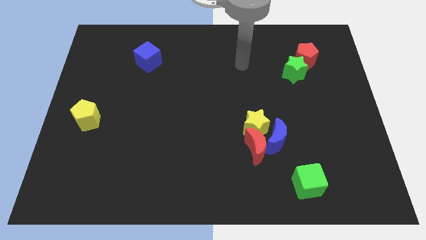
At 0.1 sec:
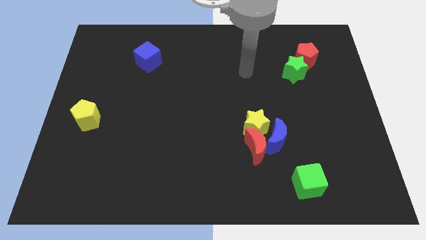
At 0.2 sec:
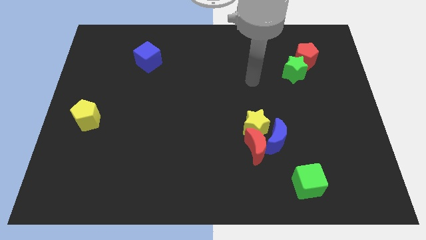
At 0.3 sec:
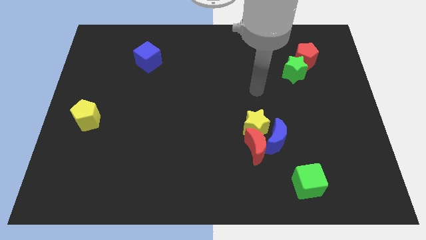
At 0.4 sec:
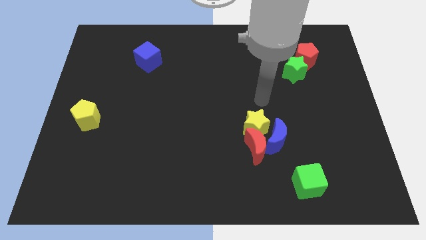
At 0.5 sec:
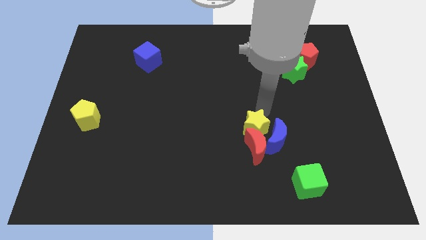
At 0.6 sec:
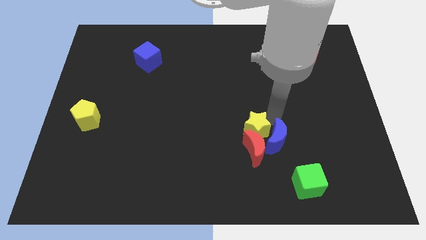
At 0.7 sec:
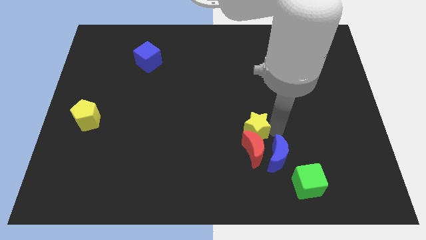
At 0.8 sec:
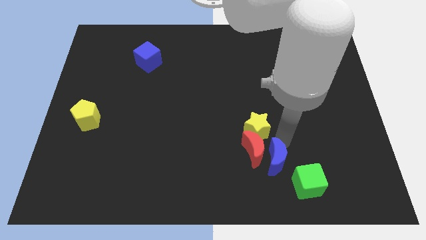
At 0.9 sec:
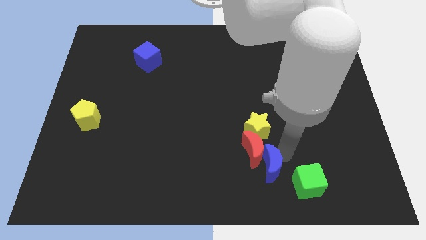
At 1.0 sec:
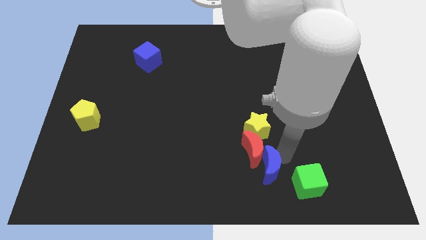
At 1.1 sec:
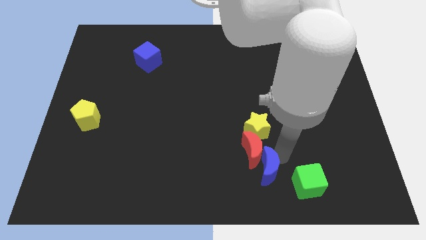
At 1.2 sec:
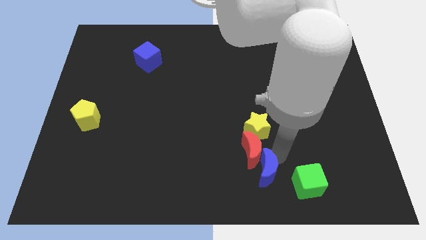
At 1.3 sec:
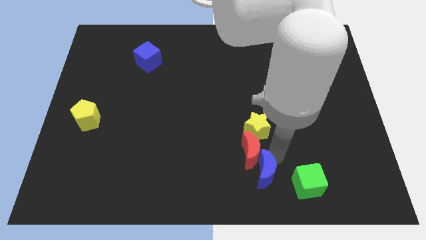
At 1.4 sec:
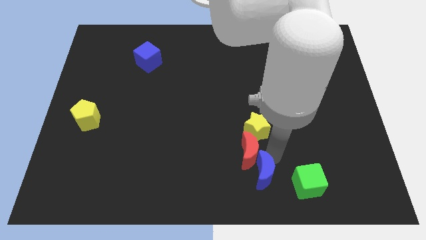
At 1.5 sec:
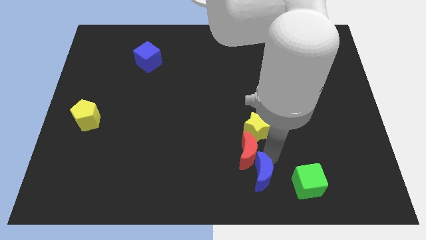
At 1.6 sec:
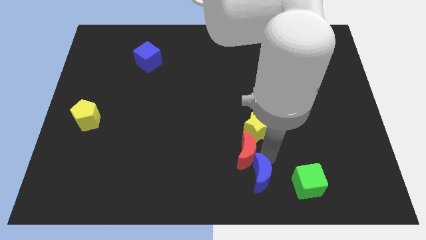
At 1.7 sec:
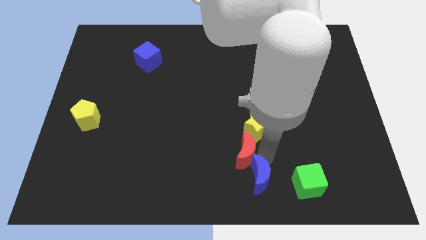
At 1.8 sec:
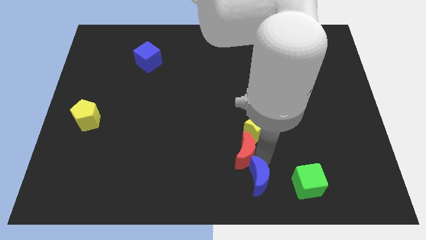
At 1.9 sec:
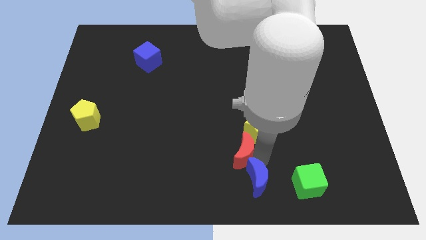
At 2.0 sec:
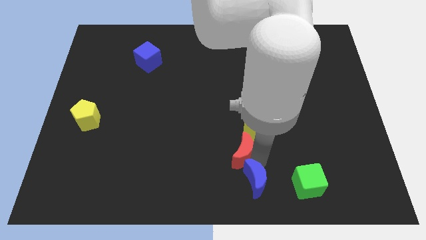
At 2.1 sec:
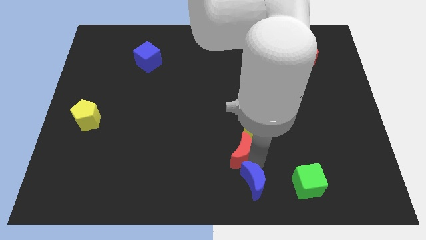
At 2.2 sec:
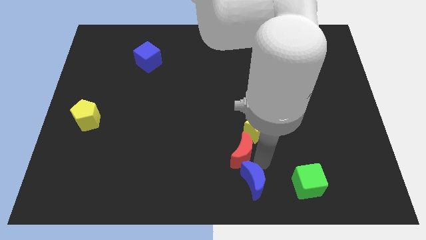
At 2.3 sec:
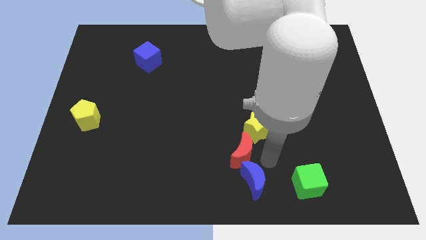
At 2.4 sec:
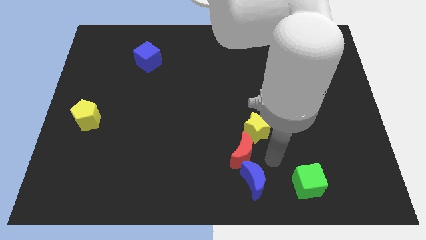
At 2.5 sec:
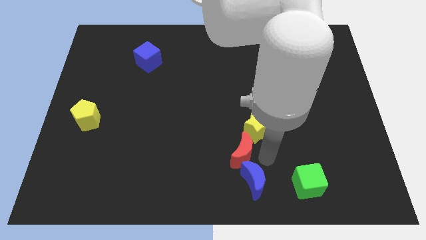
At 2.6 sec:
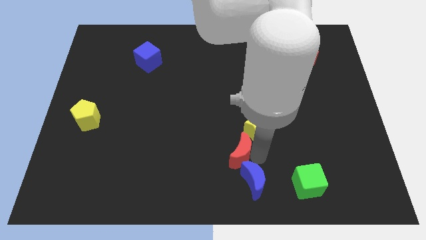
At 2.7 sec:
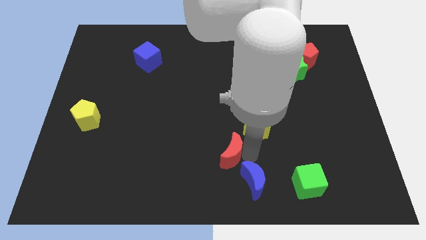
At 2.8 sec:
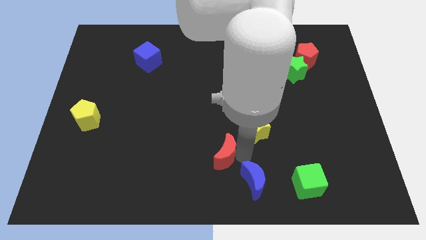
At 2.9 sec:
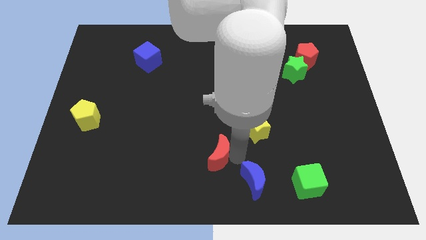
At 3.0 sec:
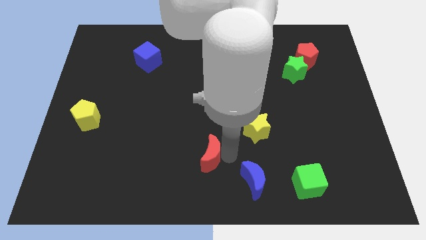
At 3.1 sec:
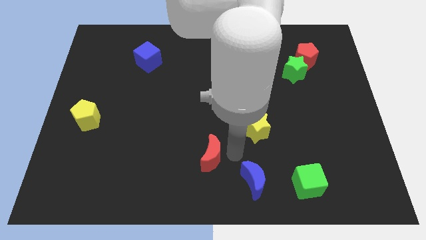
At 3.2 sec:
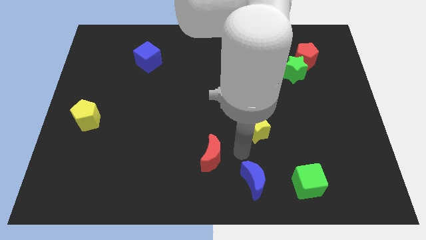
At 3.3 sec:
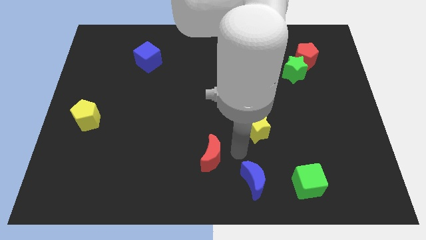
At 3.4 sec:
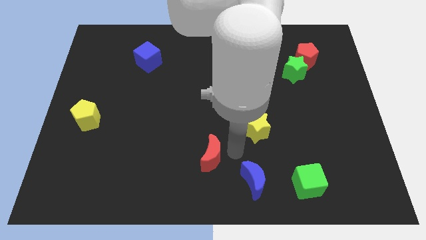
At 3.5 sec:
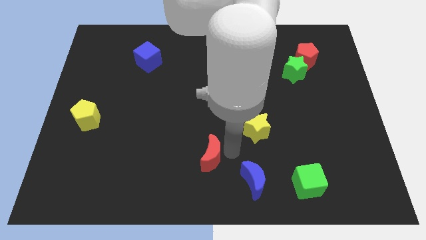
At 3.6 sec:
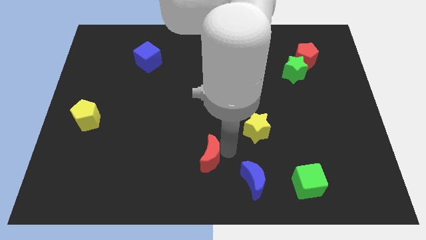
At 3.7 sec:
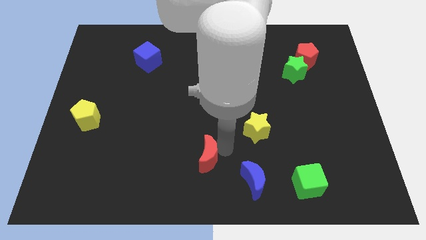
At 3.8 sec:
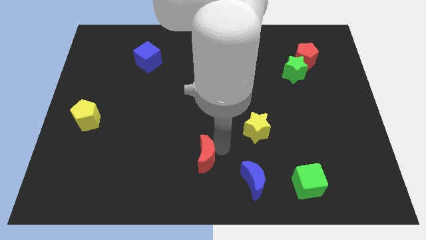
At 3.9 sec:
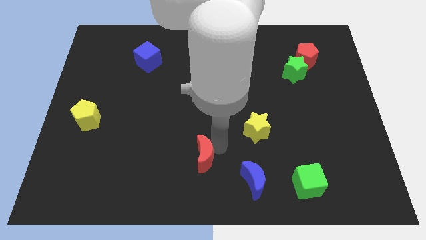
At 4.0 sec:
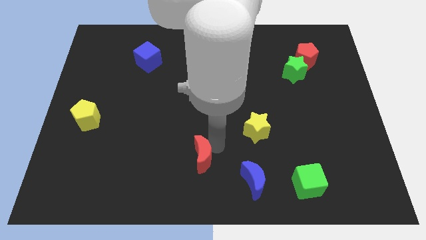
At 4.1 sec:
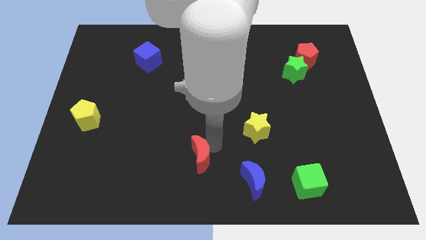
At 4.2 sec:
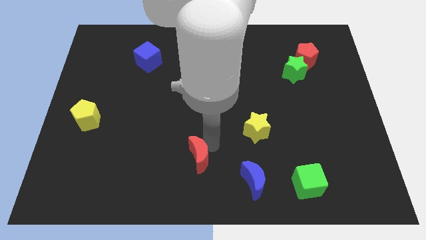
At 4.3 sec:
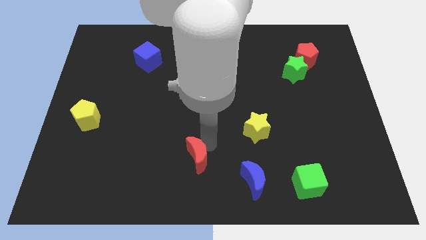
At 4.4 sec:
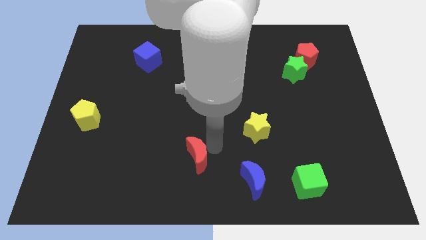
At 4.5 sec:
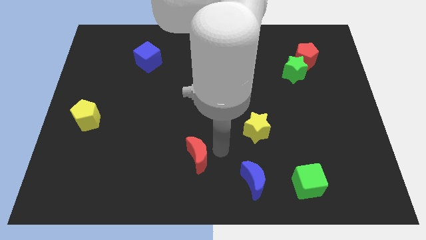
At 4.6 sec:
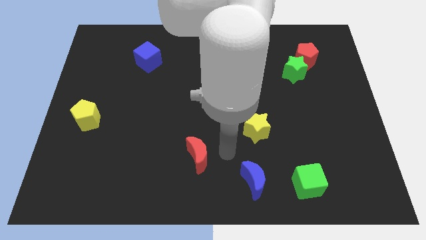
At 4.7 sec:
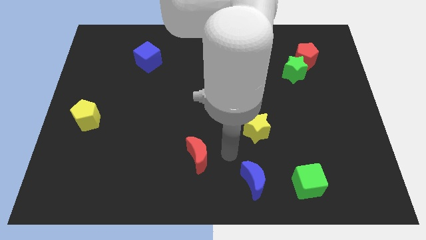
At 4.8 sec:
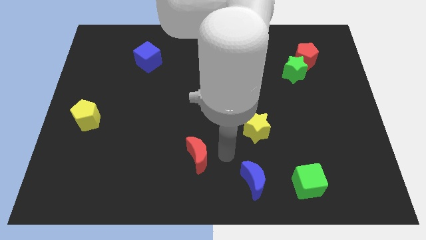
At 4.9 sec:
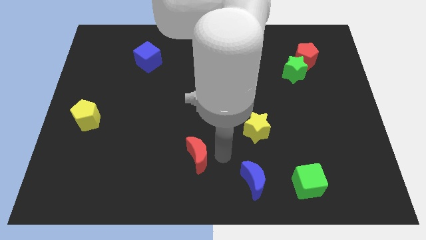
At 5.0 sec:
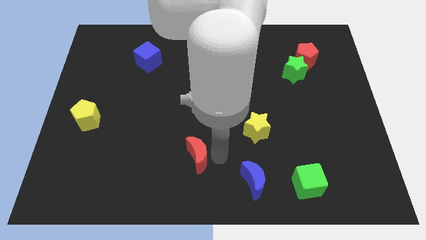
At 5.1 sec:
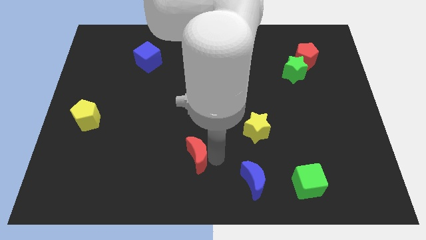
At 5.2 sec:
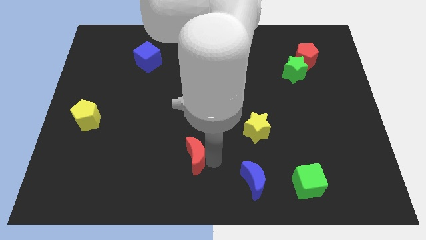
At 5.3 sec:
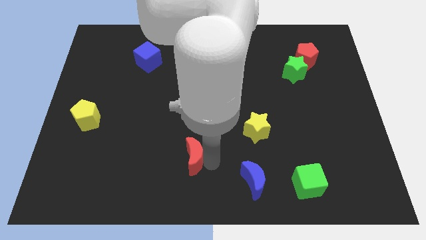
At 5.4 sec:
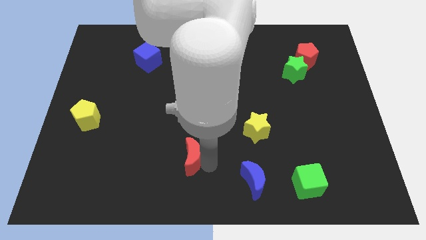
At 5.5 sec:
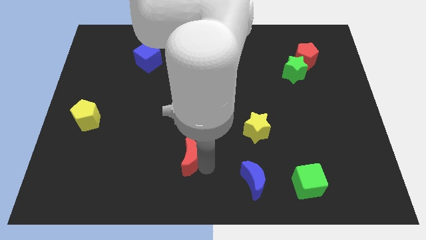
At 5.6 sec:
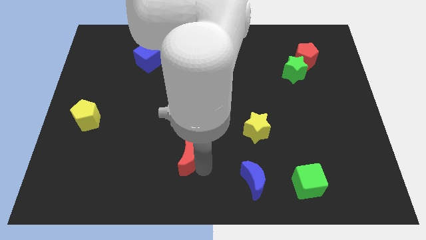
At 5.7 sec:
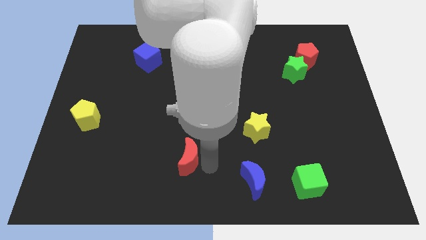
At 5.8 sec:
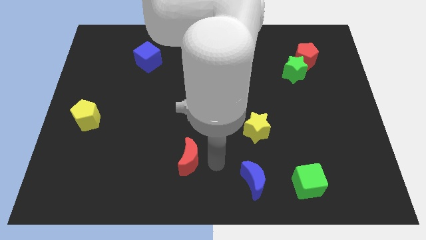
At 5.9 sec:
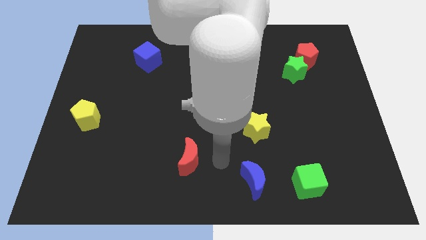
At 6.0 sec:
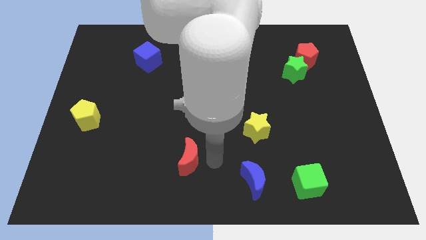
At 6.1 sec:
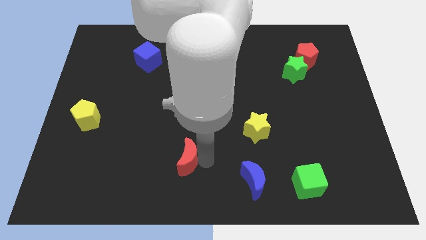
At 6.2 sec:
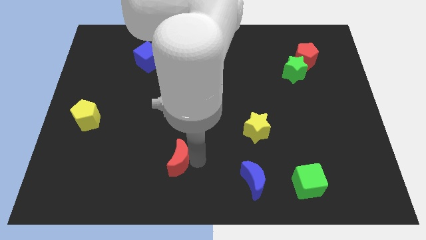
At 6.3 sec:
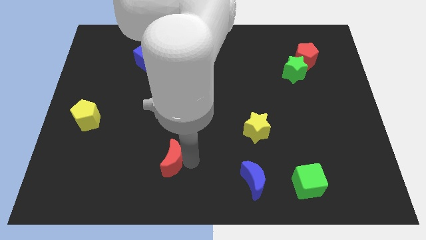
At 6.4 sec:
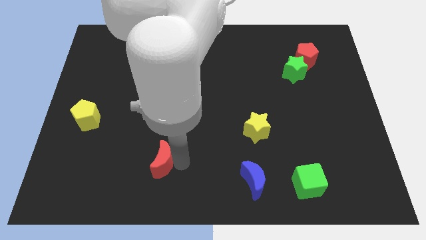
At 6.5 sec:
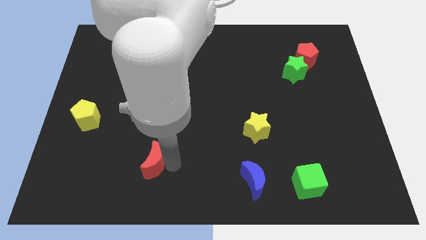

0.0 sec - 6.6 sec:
move the red moon left

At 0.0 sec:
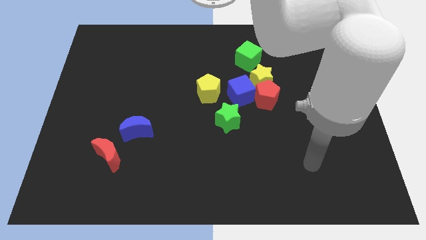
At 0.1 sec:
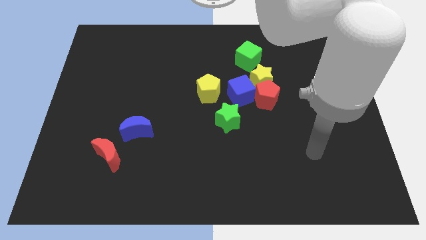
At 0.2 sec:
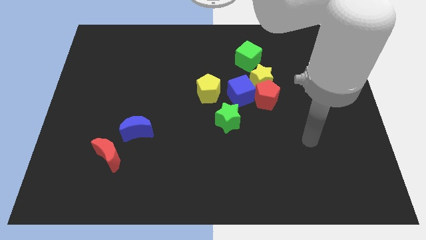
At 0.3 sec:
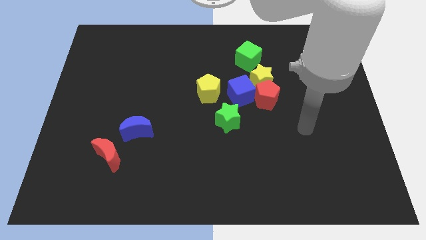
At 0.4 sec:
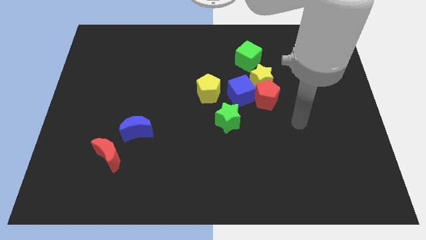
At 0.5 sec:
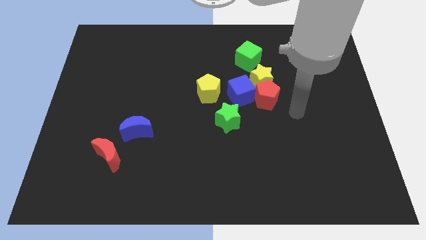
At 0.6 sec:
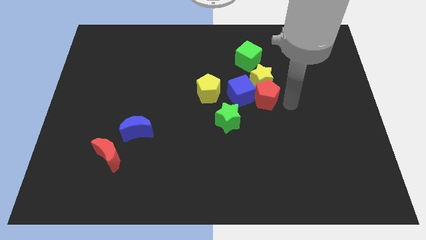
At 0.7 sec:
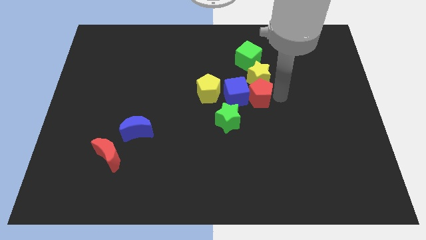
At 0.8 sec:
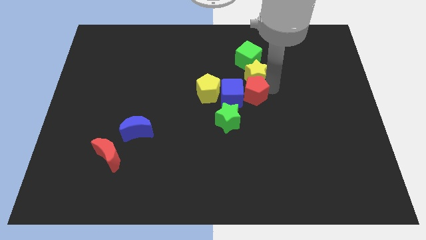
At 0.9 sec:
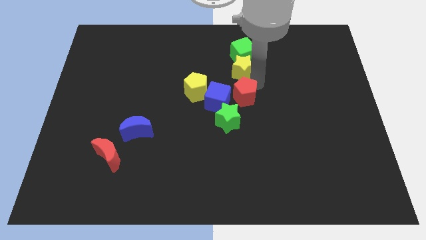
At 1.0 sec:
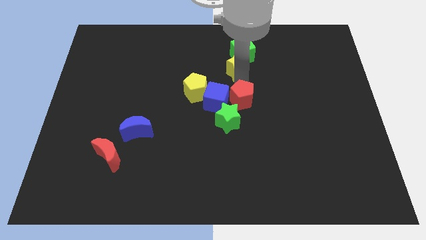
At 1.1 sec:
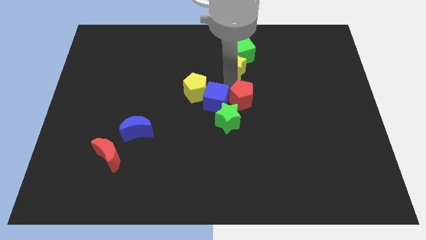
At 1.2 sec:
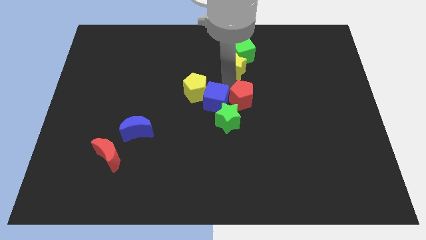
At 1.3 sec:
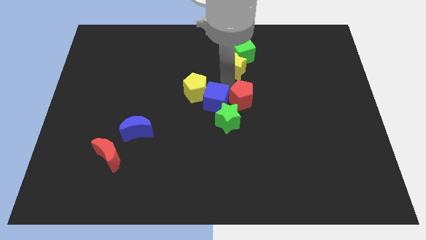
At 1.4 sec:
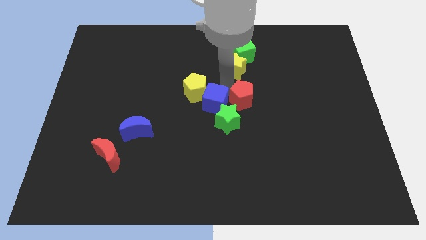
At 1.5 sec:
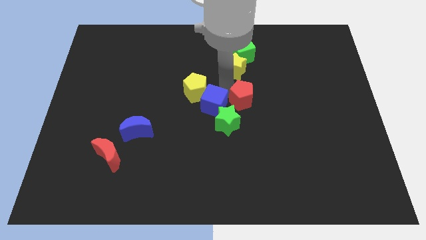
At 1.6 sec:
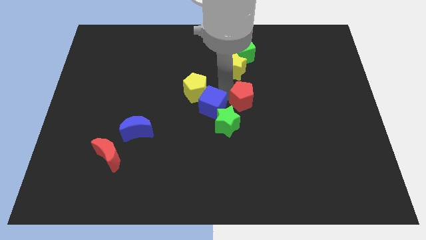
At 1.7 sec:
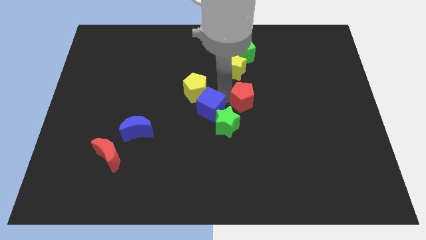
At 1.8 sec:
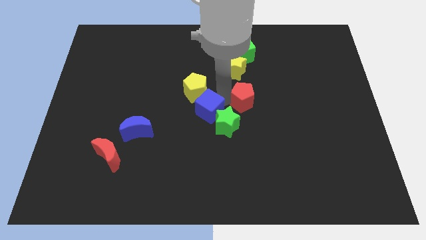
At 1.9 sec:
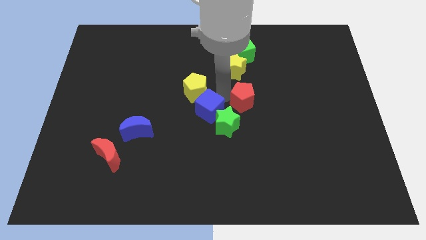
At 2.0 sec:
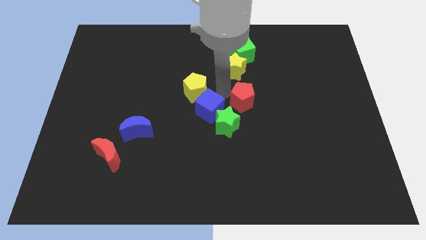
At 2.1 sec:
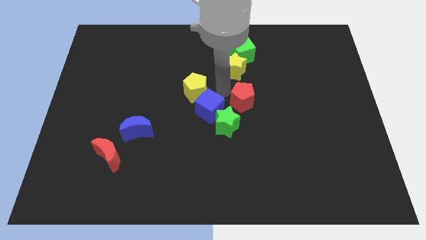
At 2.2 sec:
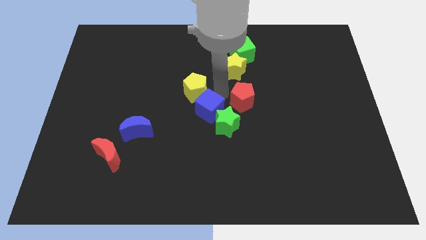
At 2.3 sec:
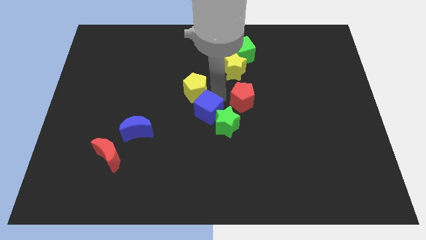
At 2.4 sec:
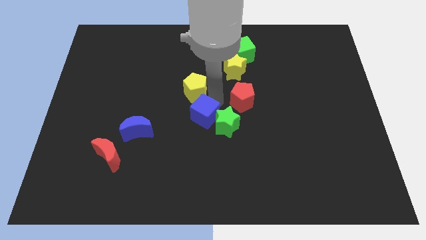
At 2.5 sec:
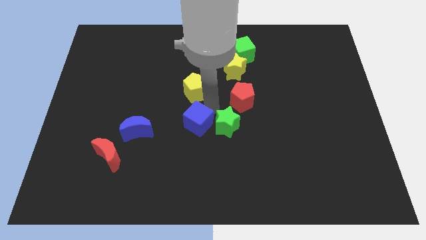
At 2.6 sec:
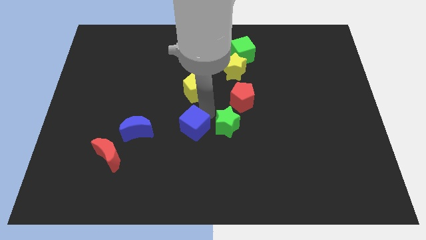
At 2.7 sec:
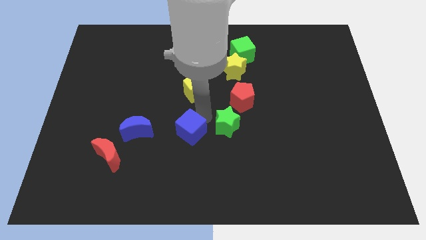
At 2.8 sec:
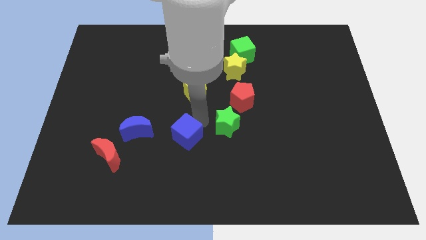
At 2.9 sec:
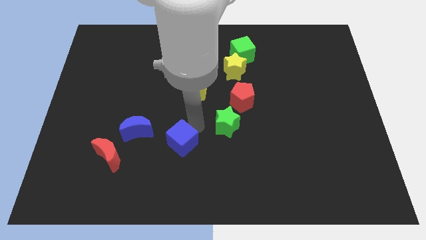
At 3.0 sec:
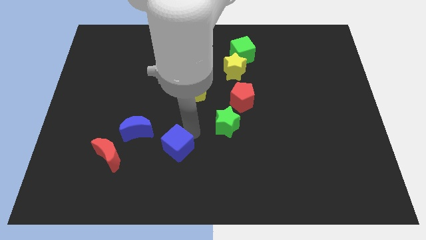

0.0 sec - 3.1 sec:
slide the blue cube diagonally down and left
